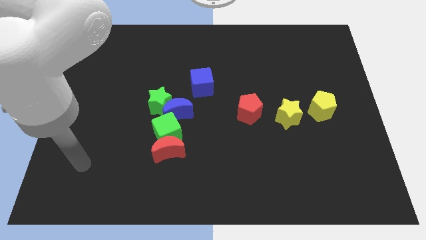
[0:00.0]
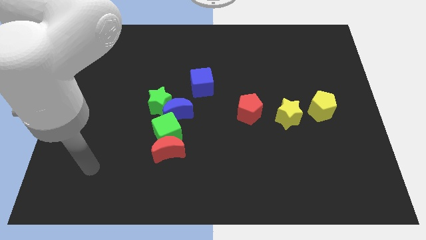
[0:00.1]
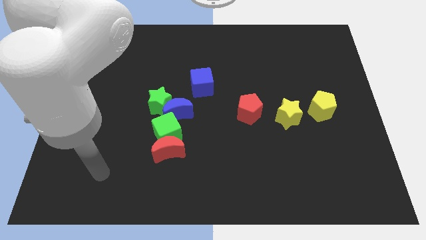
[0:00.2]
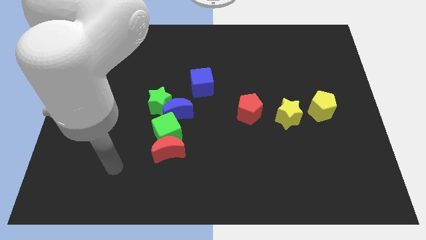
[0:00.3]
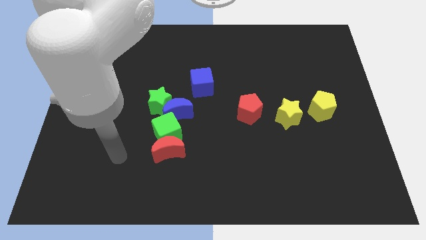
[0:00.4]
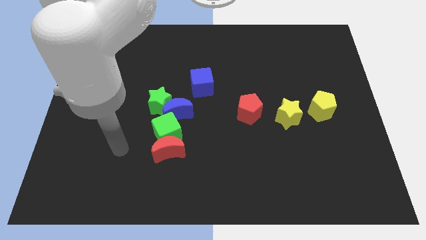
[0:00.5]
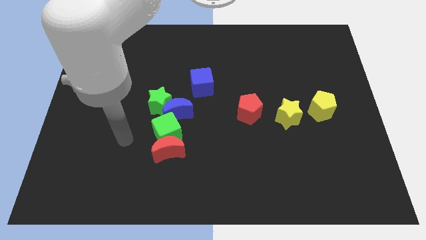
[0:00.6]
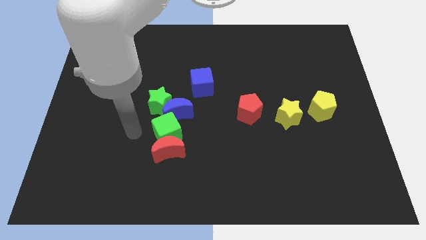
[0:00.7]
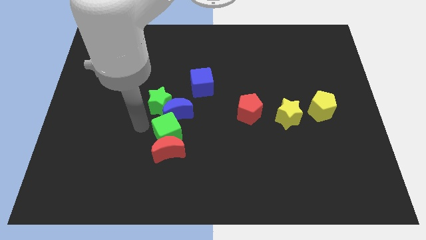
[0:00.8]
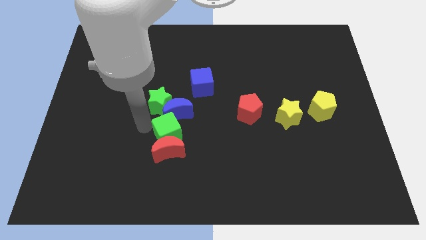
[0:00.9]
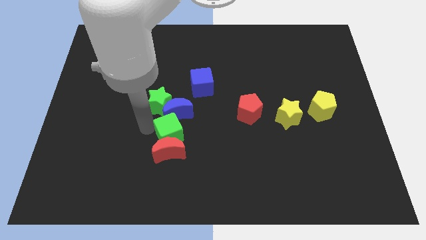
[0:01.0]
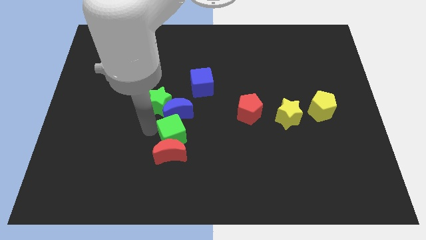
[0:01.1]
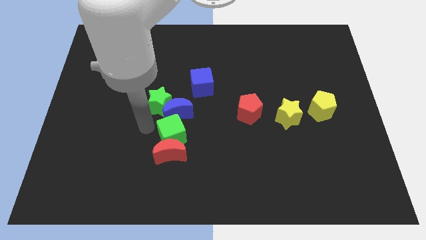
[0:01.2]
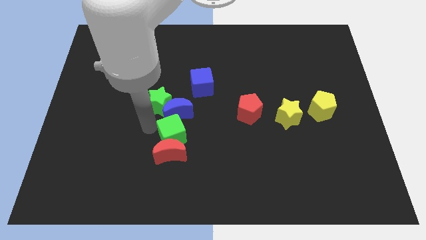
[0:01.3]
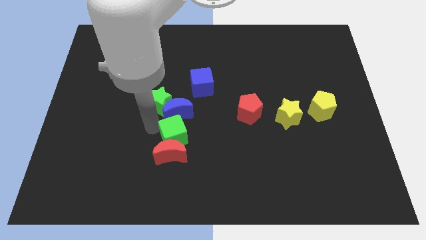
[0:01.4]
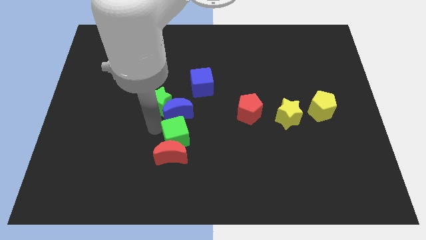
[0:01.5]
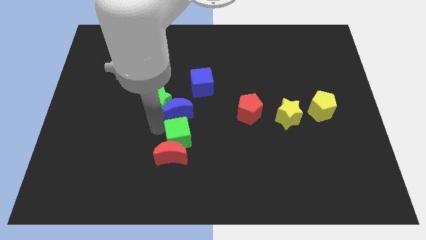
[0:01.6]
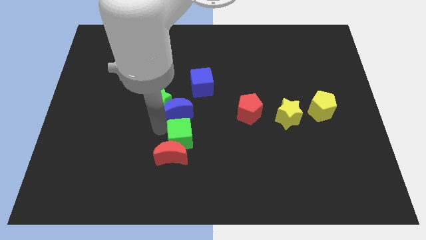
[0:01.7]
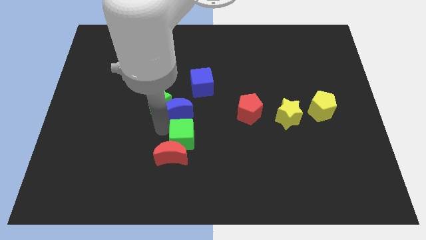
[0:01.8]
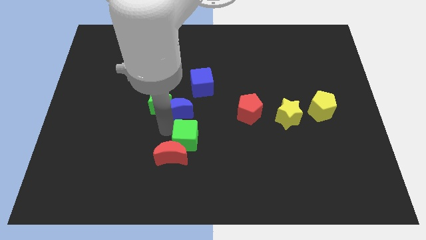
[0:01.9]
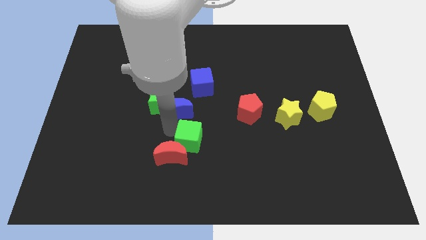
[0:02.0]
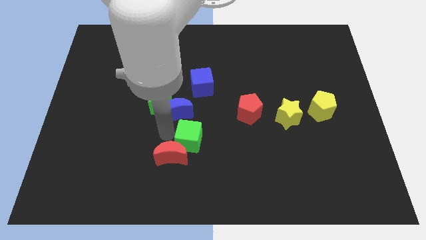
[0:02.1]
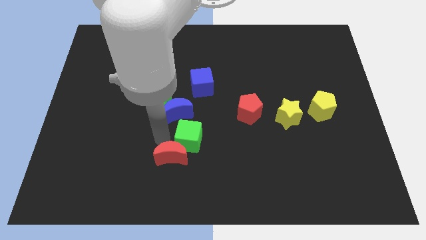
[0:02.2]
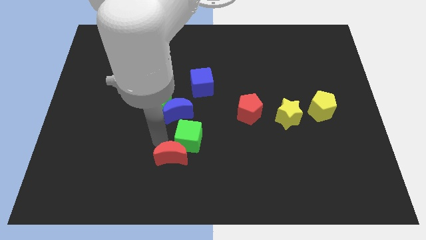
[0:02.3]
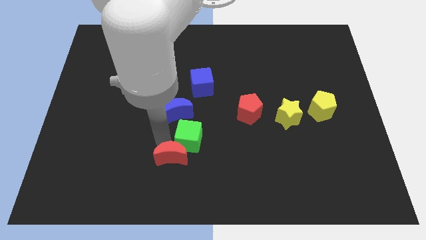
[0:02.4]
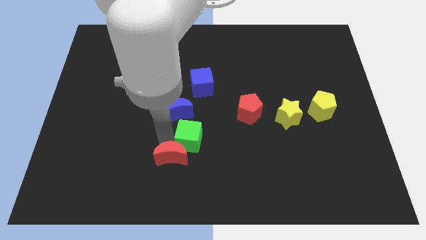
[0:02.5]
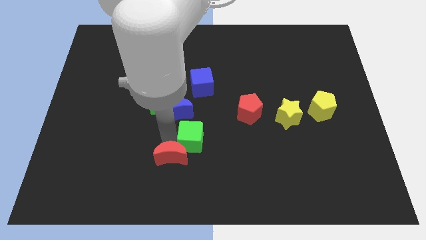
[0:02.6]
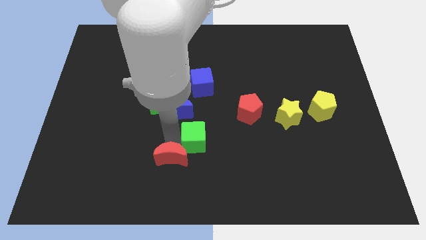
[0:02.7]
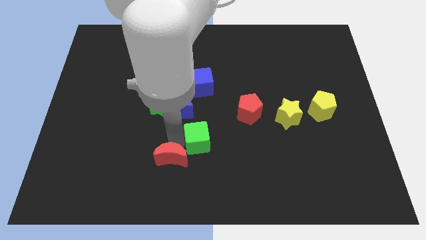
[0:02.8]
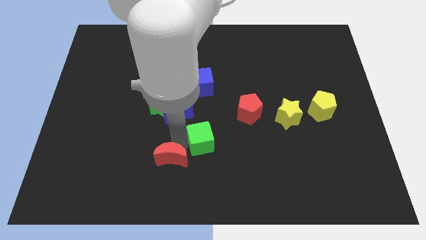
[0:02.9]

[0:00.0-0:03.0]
move the green cube to the right a bit

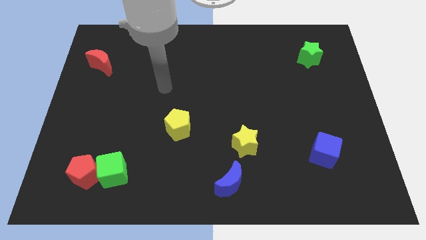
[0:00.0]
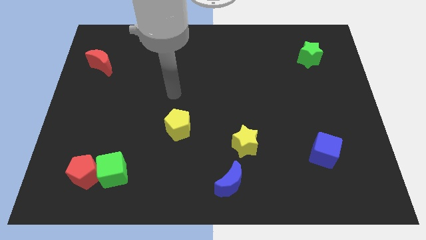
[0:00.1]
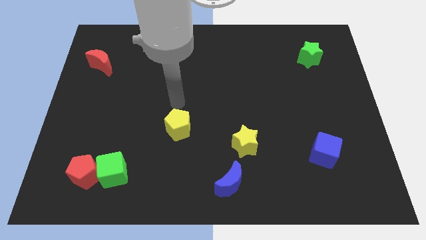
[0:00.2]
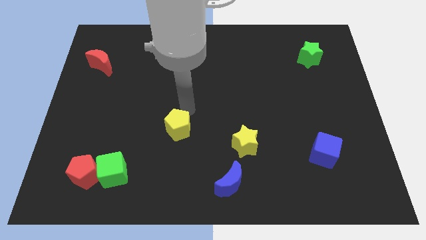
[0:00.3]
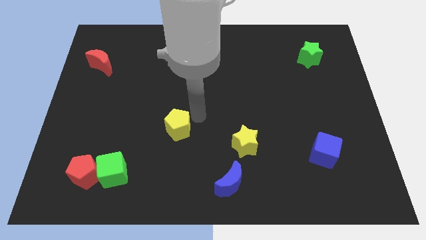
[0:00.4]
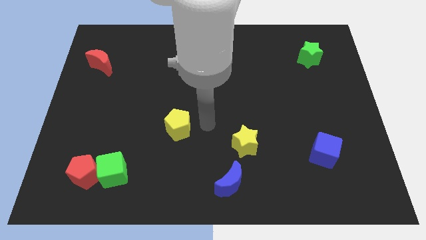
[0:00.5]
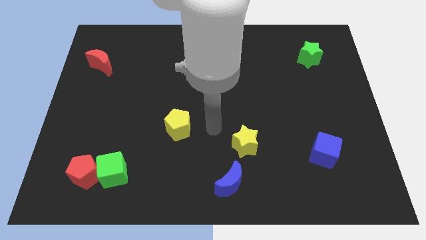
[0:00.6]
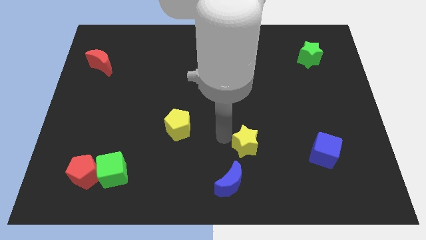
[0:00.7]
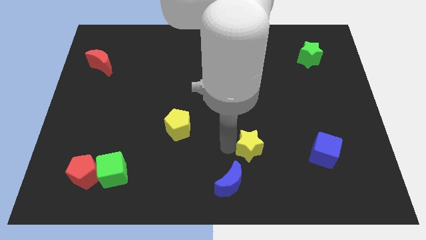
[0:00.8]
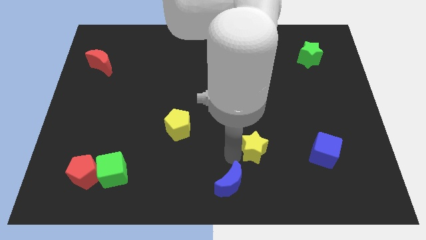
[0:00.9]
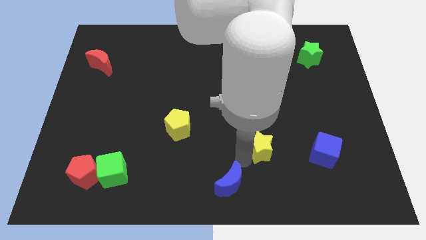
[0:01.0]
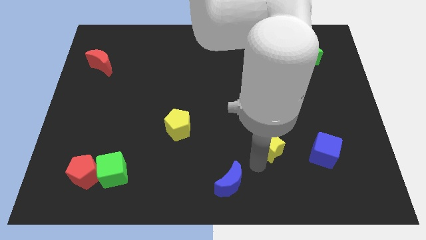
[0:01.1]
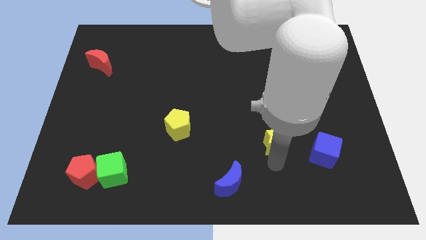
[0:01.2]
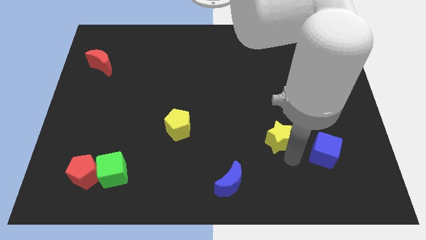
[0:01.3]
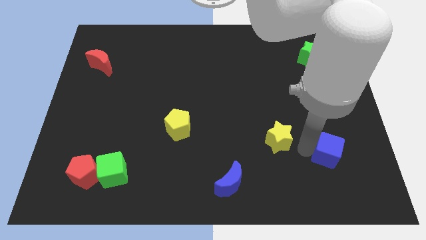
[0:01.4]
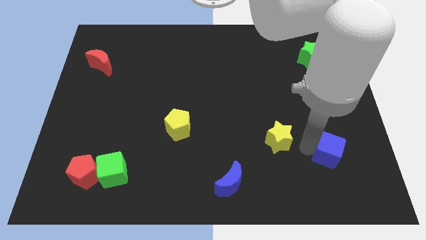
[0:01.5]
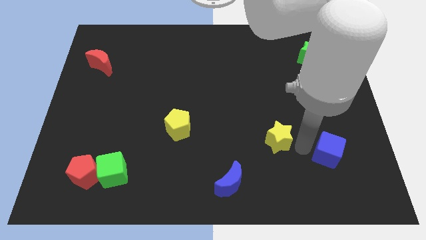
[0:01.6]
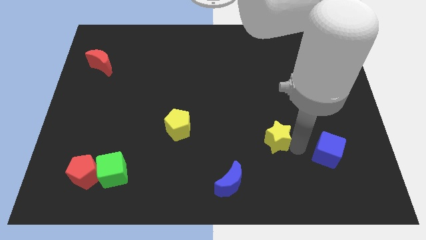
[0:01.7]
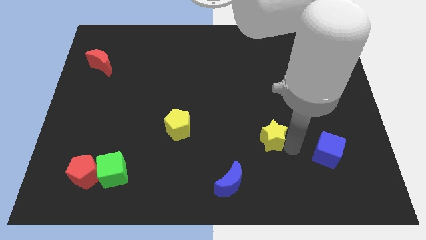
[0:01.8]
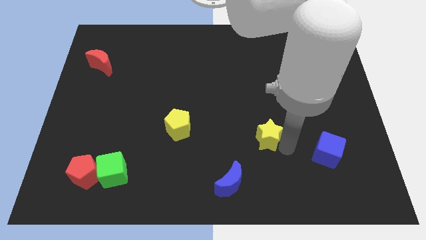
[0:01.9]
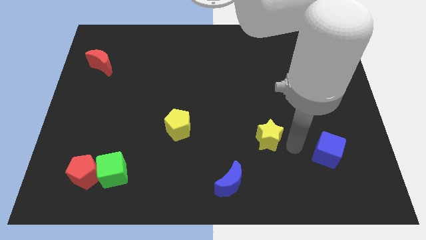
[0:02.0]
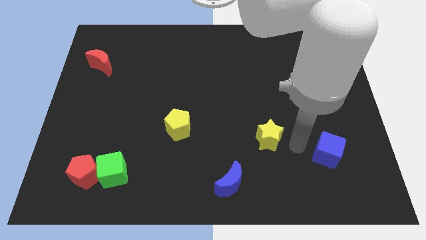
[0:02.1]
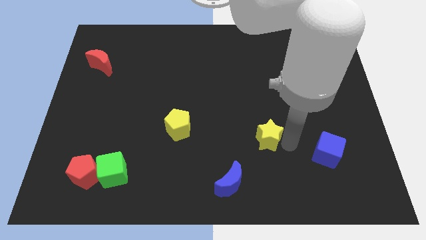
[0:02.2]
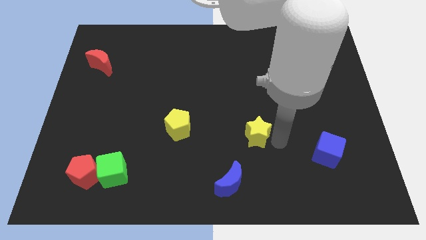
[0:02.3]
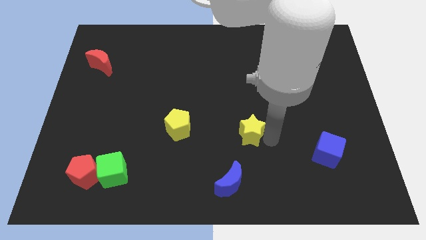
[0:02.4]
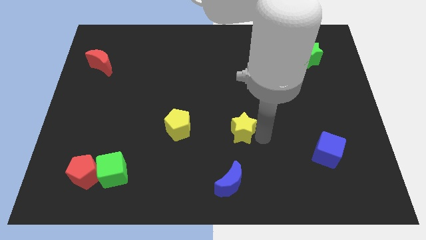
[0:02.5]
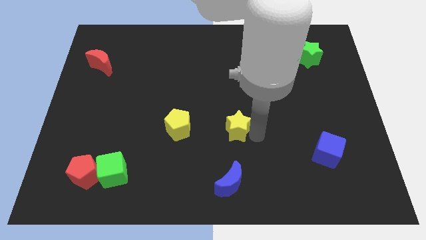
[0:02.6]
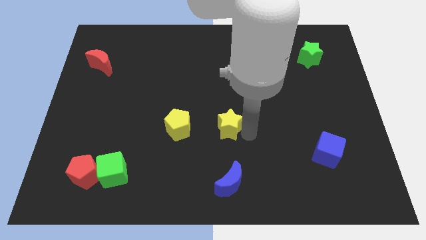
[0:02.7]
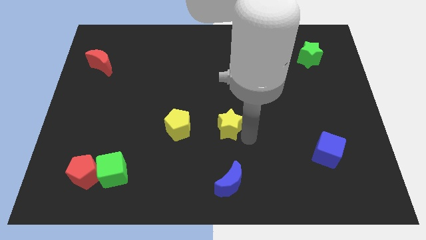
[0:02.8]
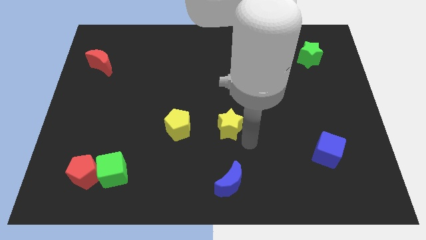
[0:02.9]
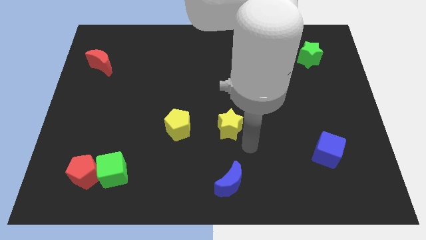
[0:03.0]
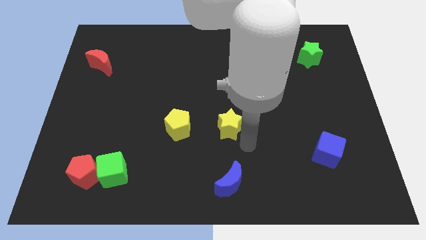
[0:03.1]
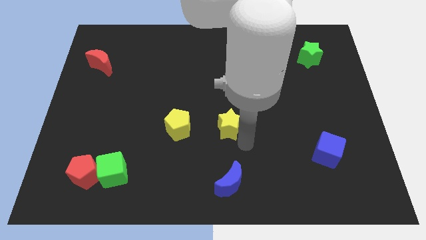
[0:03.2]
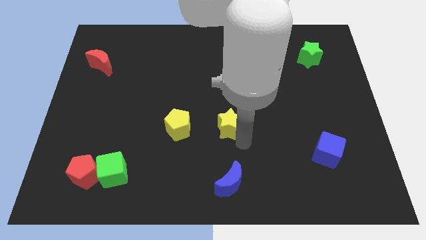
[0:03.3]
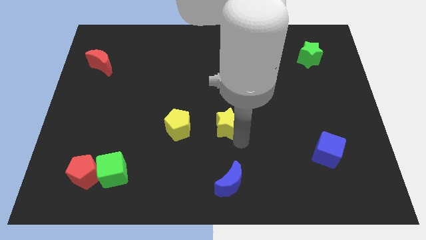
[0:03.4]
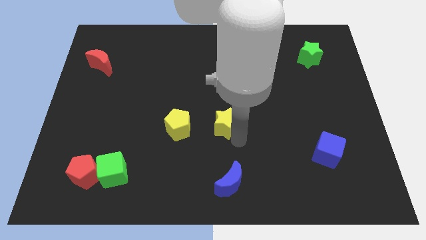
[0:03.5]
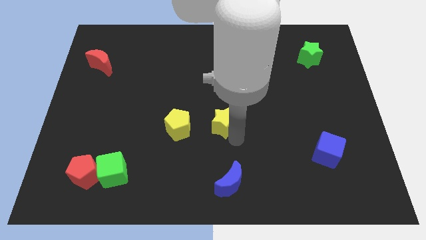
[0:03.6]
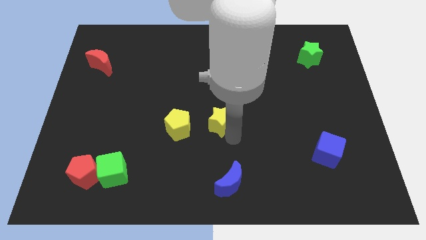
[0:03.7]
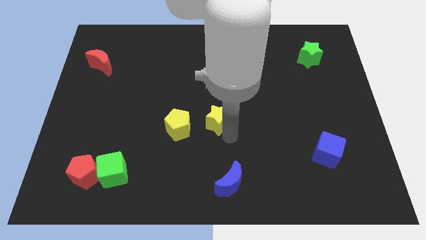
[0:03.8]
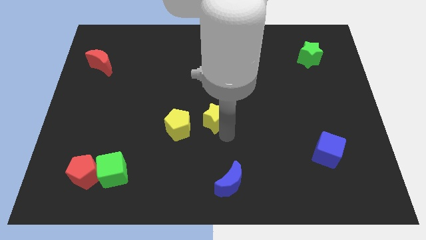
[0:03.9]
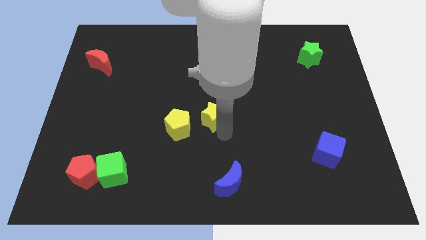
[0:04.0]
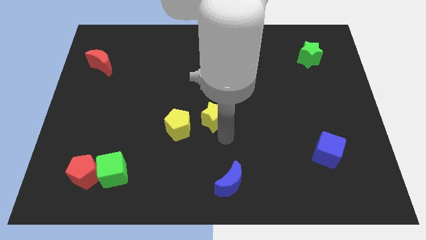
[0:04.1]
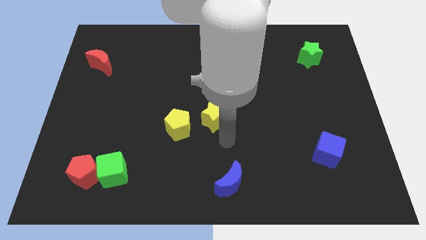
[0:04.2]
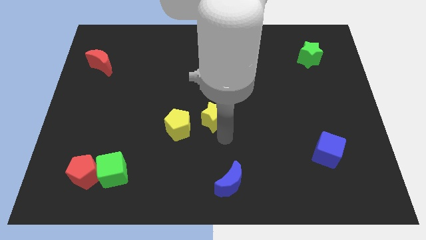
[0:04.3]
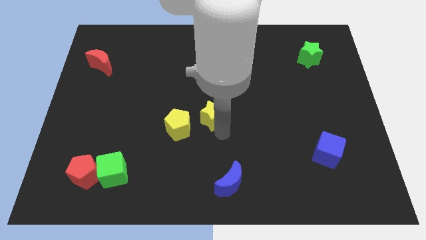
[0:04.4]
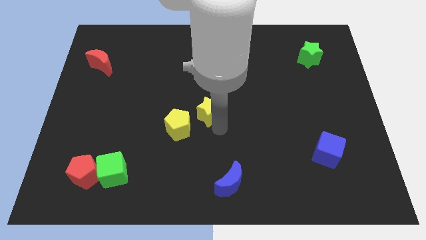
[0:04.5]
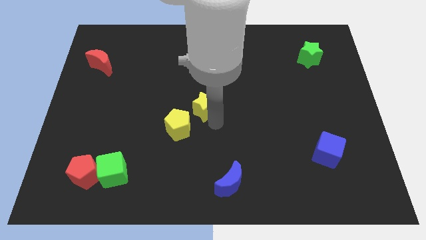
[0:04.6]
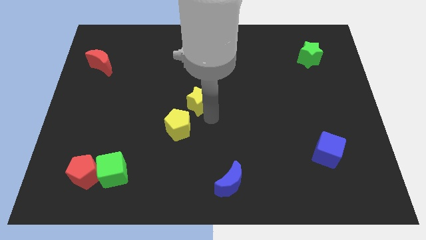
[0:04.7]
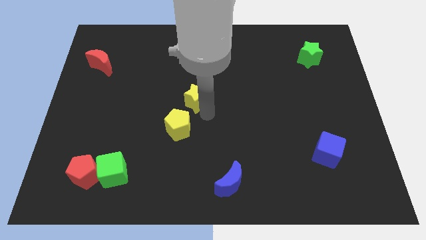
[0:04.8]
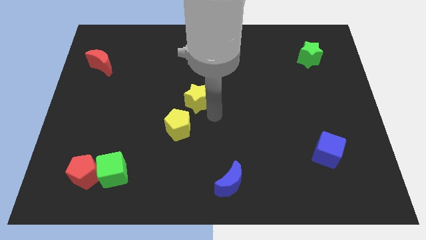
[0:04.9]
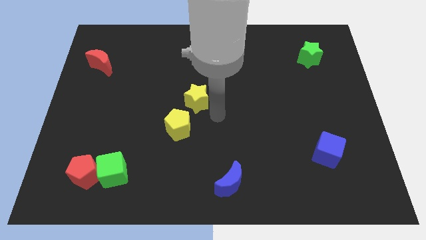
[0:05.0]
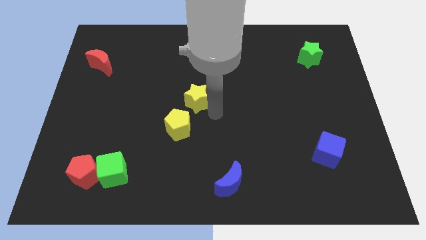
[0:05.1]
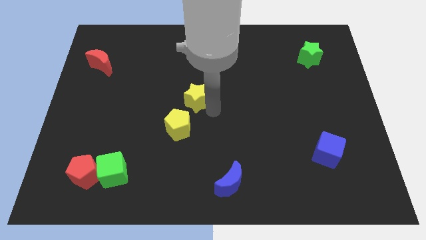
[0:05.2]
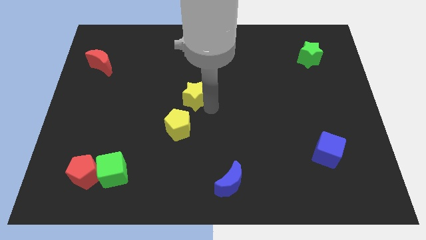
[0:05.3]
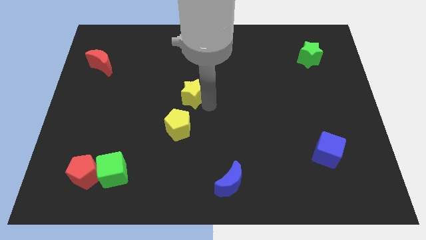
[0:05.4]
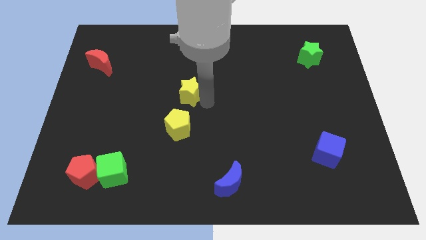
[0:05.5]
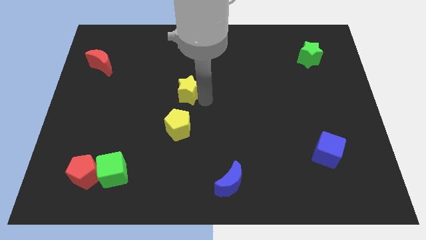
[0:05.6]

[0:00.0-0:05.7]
push the yellow star upwards and to the left diagonally
